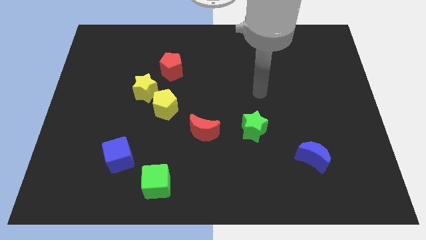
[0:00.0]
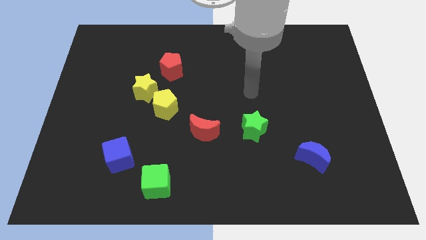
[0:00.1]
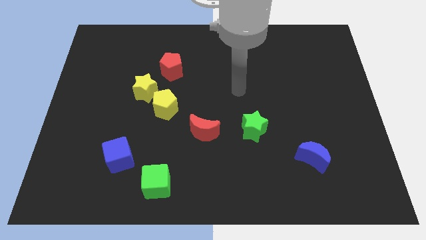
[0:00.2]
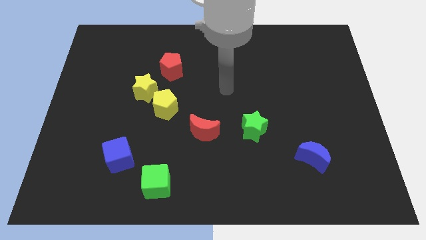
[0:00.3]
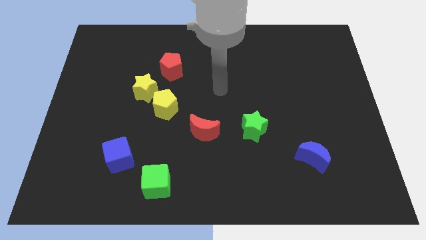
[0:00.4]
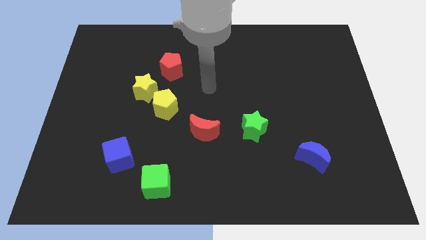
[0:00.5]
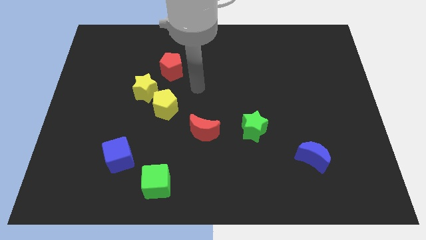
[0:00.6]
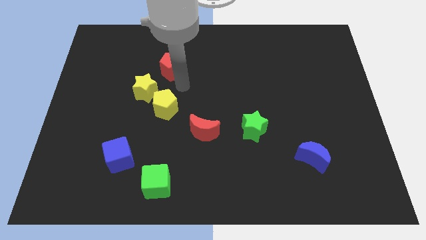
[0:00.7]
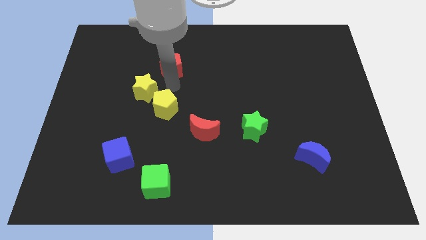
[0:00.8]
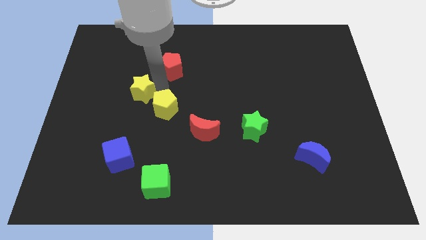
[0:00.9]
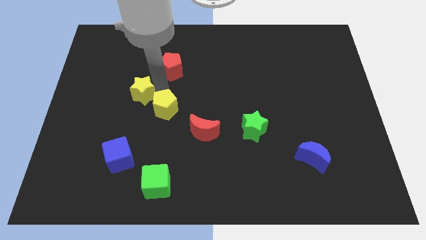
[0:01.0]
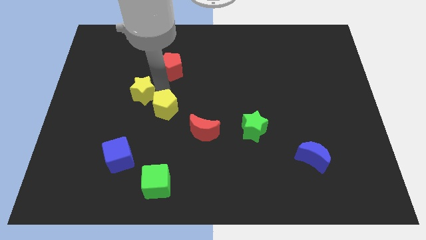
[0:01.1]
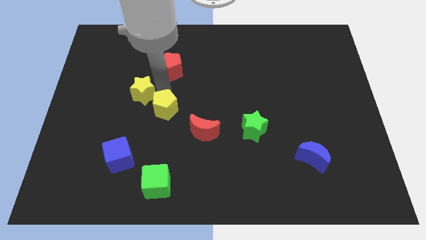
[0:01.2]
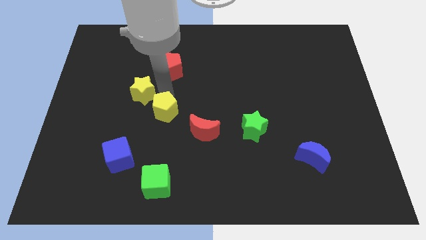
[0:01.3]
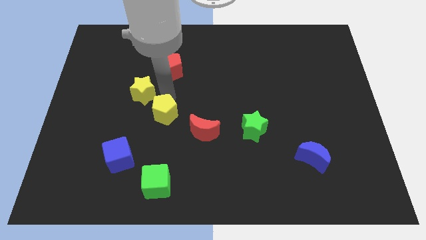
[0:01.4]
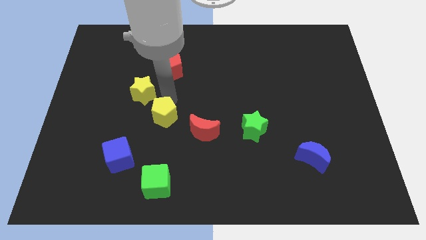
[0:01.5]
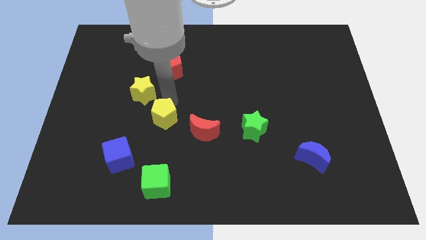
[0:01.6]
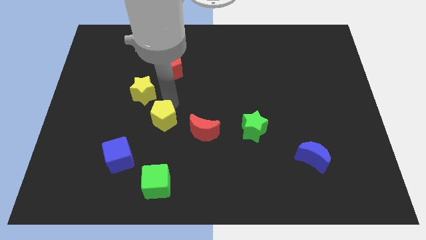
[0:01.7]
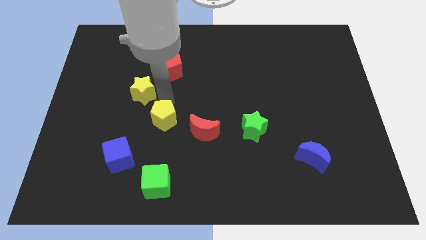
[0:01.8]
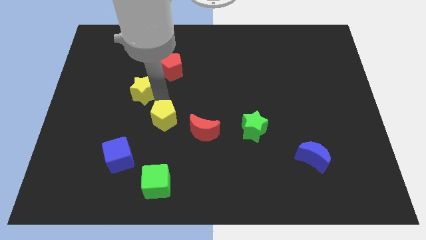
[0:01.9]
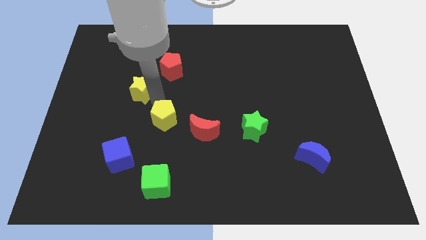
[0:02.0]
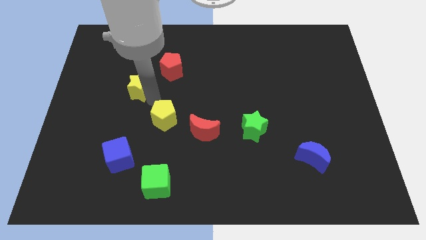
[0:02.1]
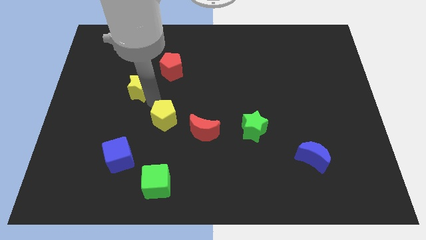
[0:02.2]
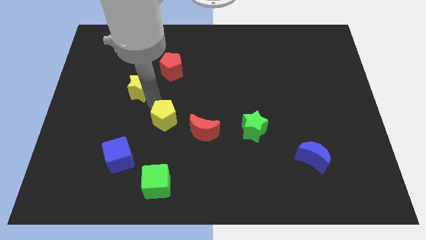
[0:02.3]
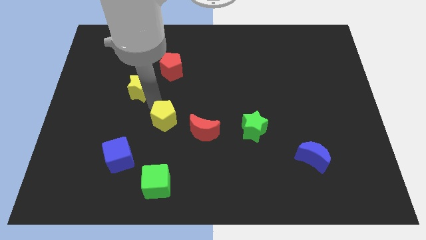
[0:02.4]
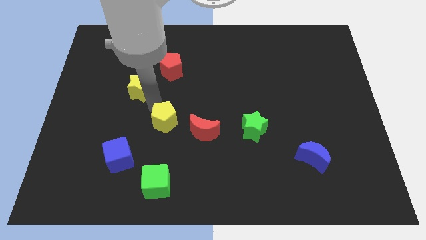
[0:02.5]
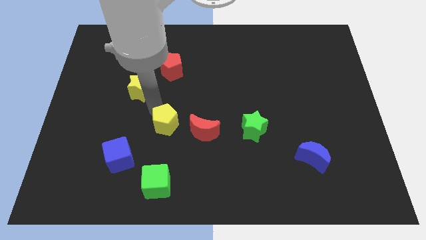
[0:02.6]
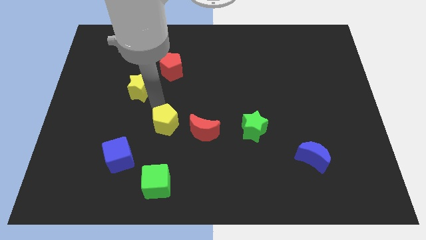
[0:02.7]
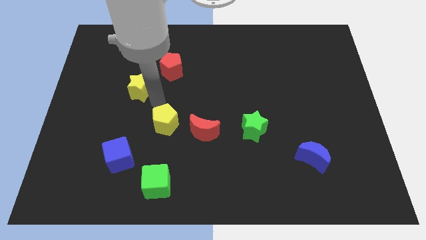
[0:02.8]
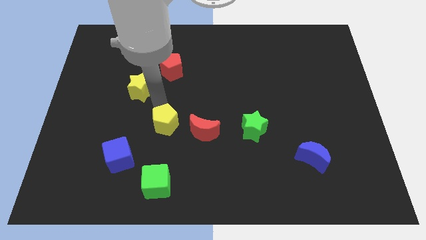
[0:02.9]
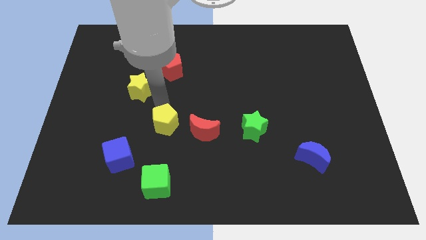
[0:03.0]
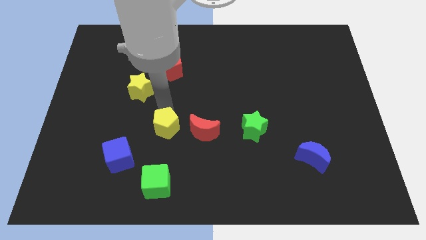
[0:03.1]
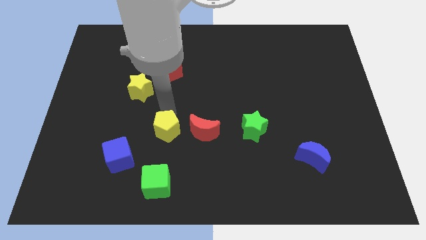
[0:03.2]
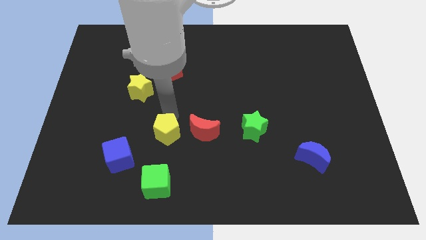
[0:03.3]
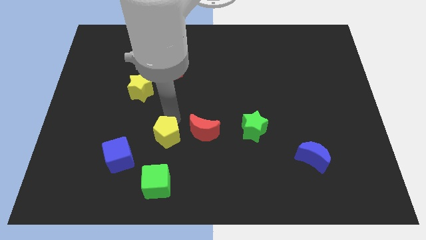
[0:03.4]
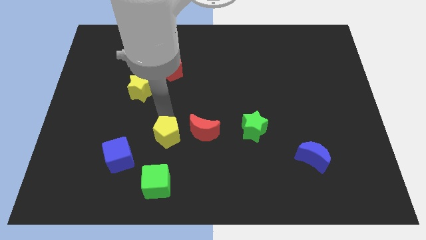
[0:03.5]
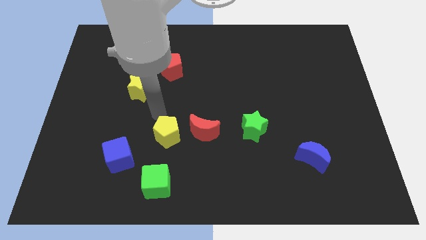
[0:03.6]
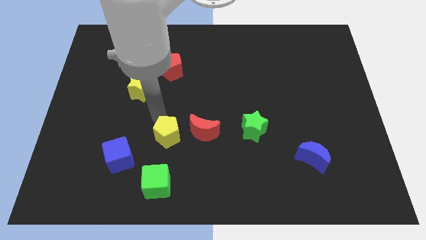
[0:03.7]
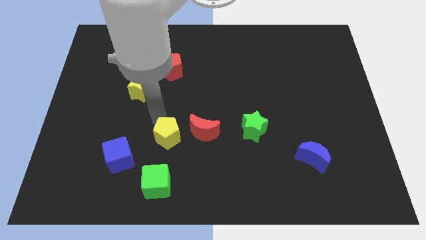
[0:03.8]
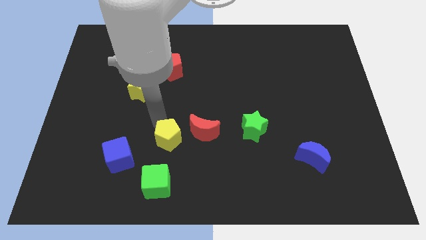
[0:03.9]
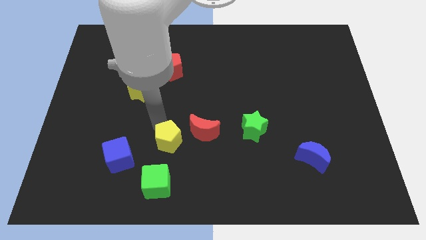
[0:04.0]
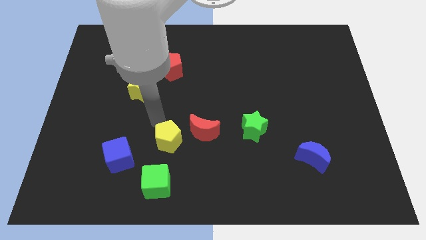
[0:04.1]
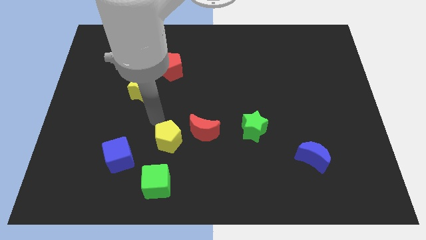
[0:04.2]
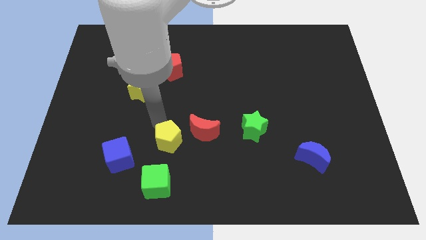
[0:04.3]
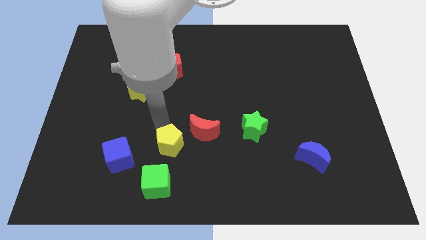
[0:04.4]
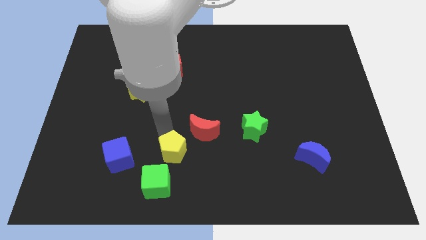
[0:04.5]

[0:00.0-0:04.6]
push the yellow pentagon to the top right of the green cube

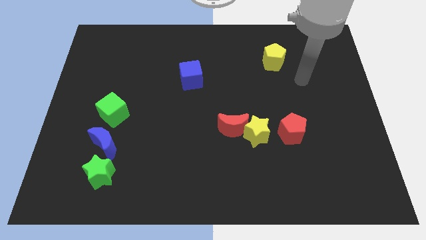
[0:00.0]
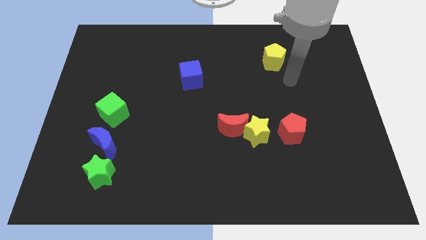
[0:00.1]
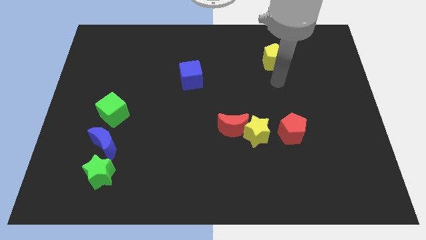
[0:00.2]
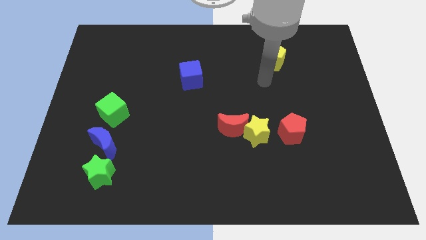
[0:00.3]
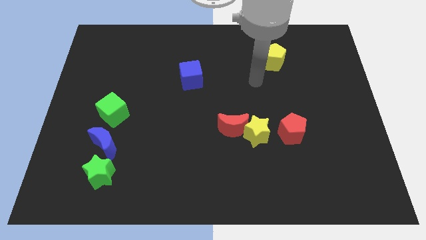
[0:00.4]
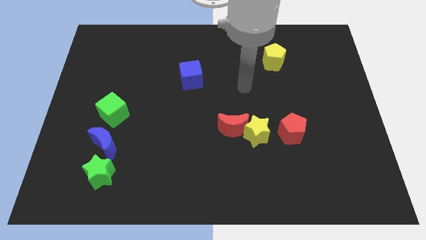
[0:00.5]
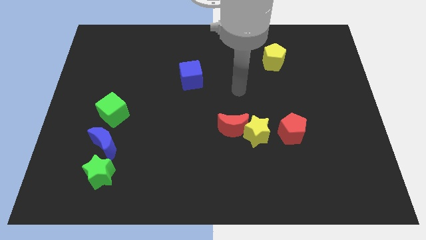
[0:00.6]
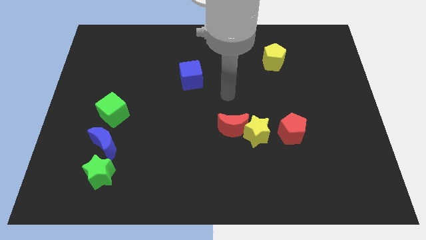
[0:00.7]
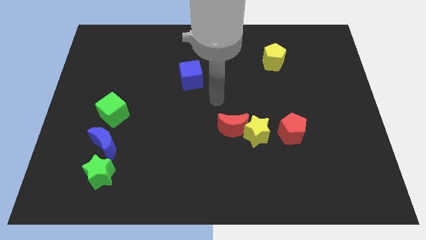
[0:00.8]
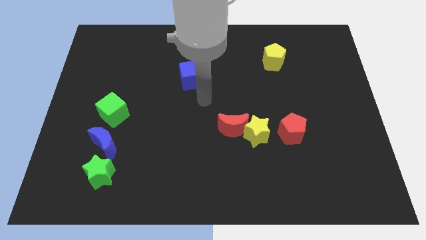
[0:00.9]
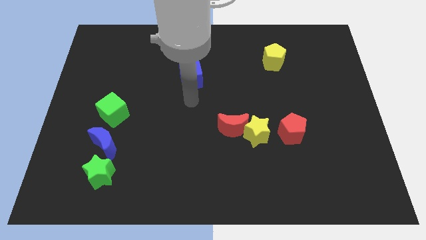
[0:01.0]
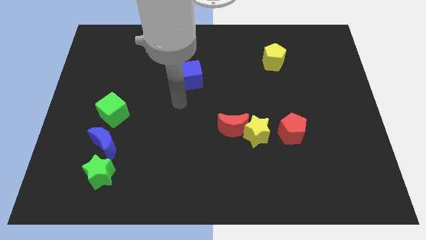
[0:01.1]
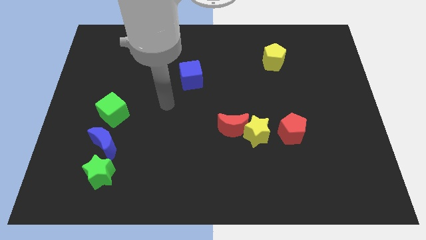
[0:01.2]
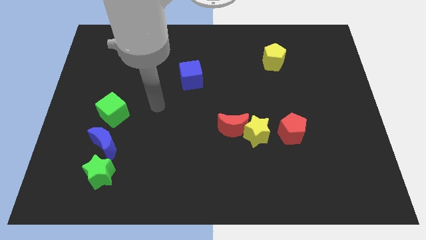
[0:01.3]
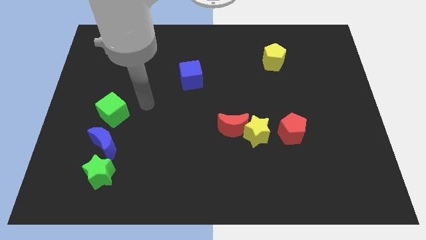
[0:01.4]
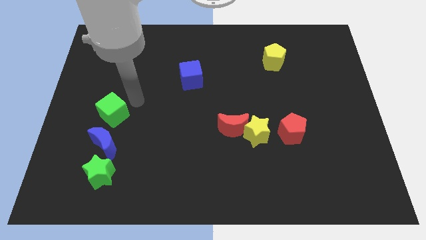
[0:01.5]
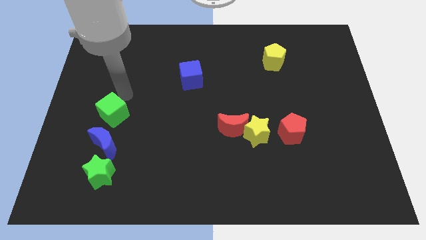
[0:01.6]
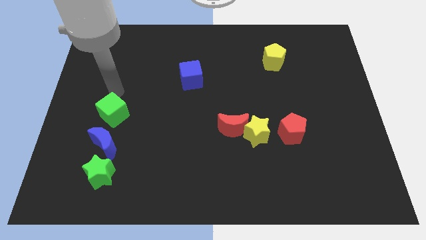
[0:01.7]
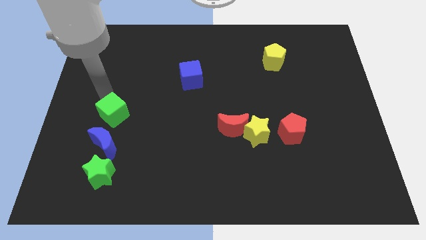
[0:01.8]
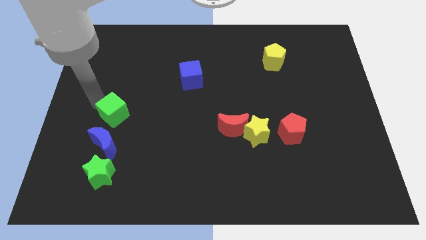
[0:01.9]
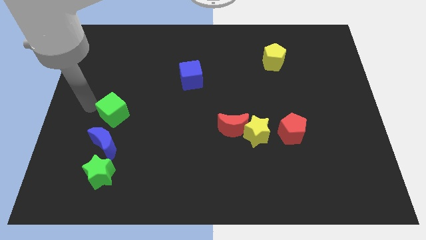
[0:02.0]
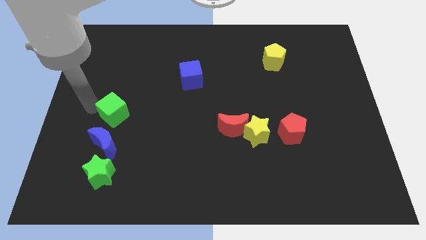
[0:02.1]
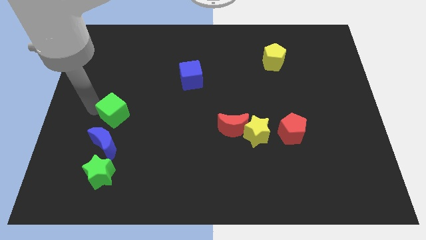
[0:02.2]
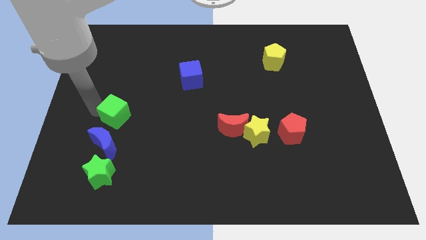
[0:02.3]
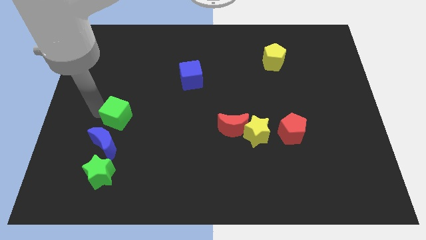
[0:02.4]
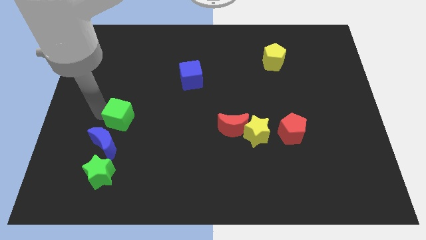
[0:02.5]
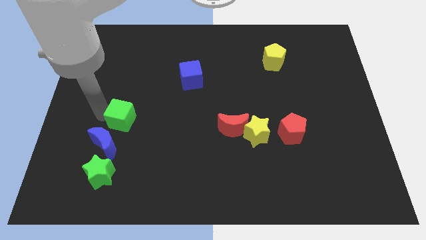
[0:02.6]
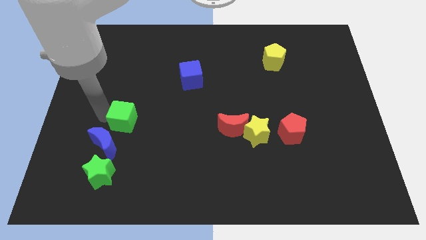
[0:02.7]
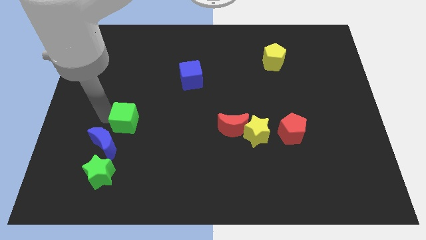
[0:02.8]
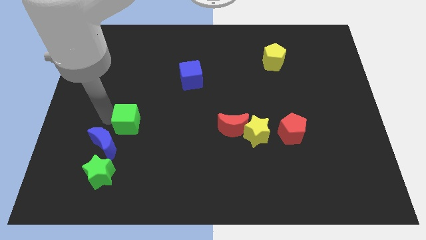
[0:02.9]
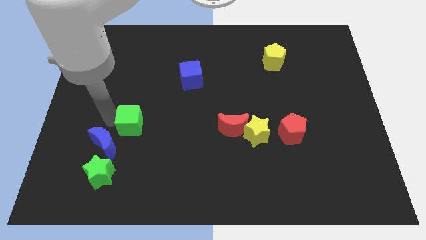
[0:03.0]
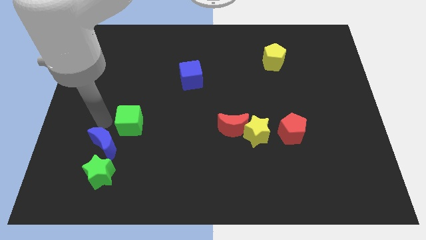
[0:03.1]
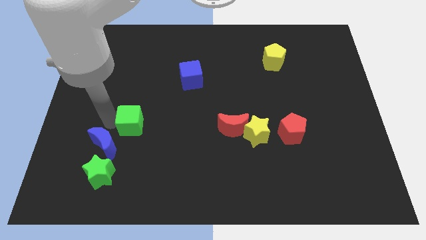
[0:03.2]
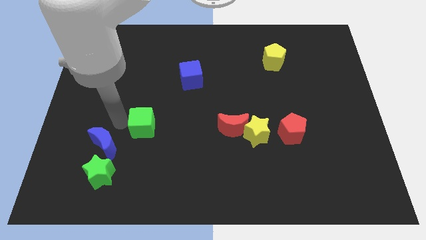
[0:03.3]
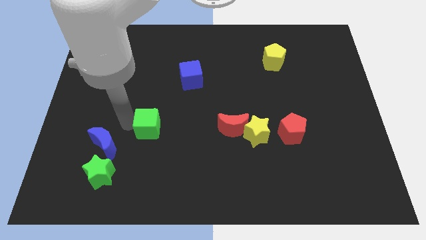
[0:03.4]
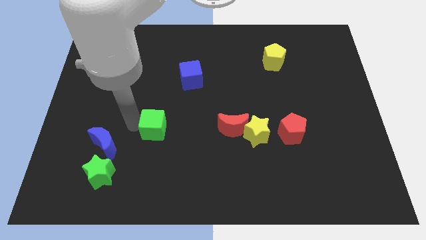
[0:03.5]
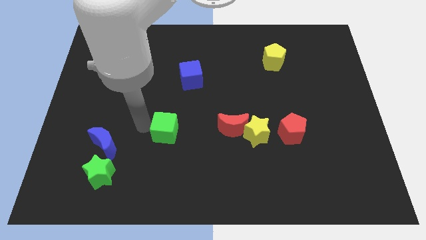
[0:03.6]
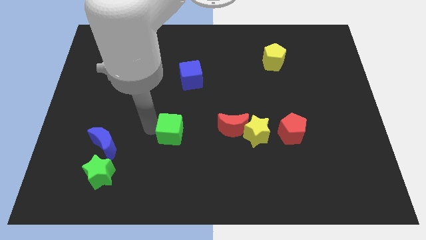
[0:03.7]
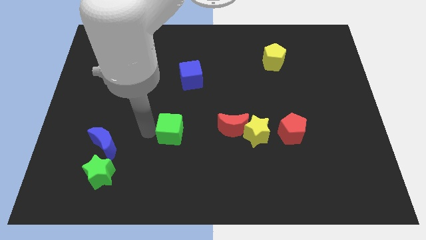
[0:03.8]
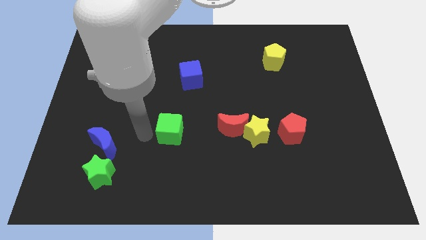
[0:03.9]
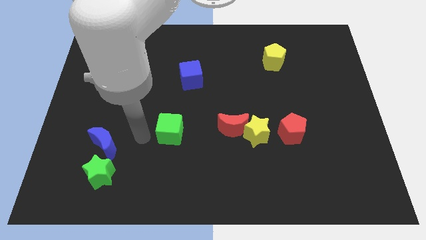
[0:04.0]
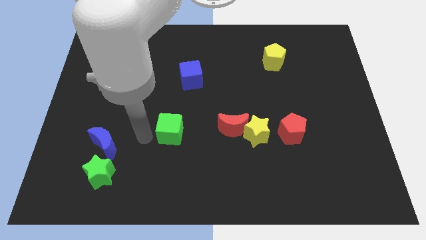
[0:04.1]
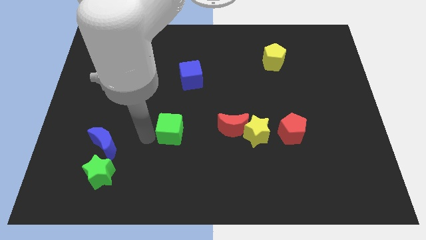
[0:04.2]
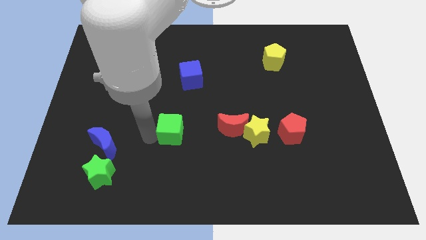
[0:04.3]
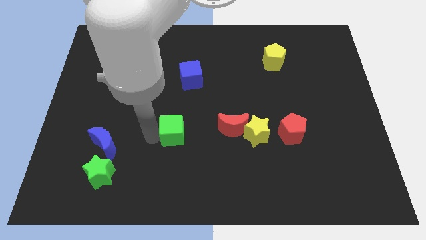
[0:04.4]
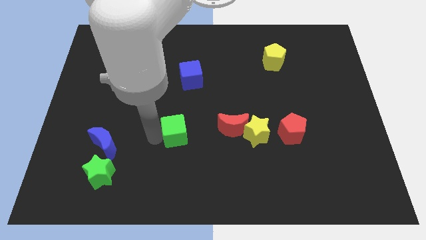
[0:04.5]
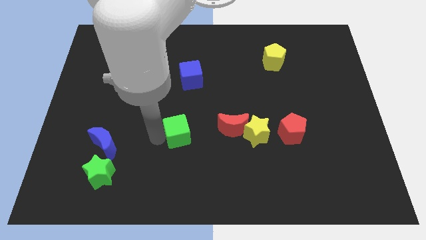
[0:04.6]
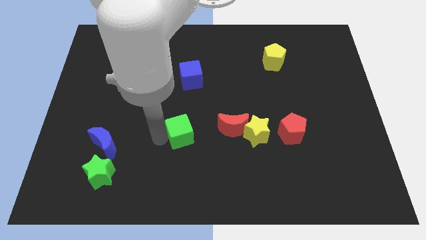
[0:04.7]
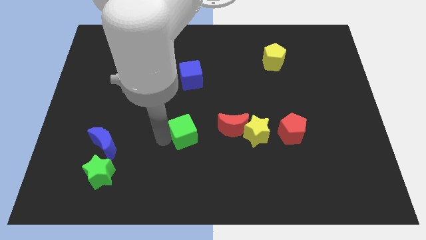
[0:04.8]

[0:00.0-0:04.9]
move the green cube just left of the yellow star
